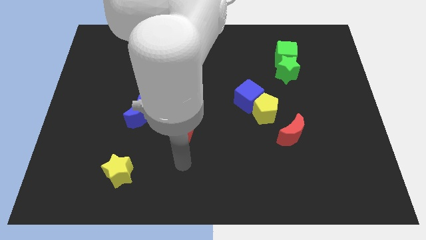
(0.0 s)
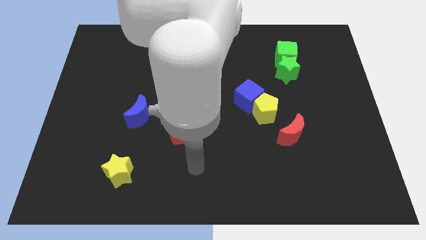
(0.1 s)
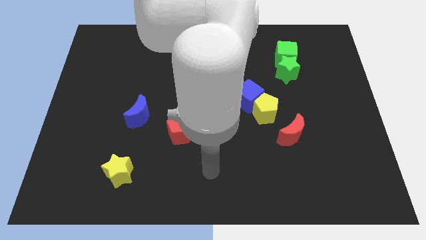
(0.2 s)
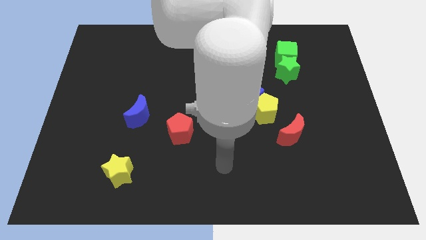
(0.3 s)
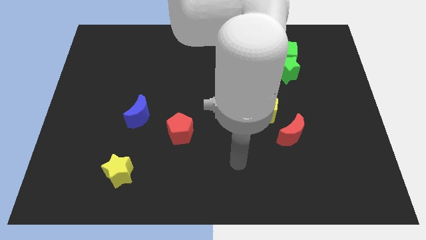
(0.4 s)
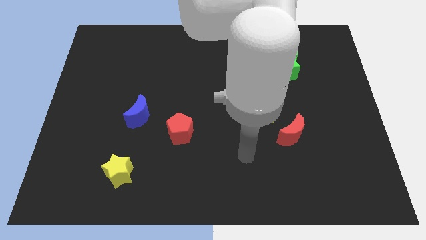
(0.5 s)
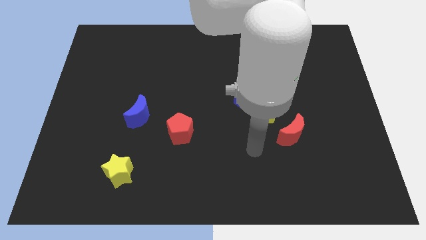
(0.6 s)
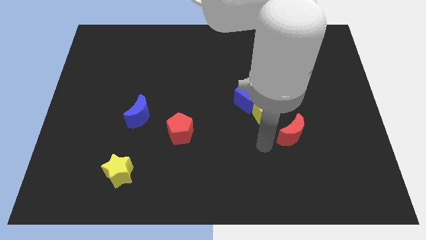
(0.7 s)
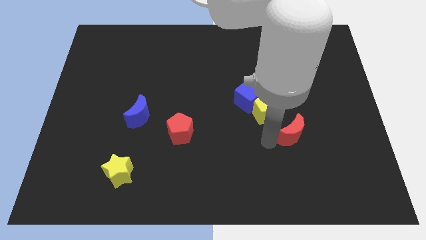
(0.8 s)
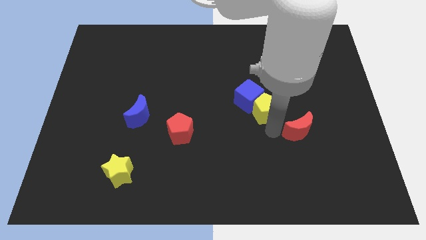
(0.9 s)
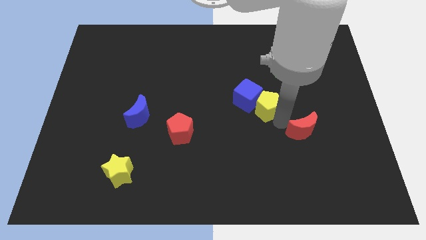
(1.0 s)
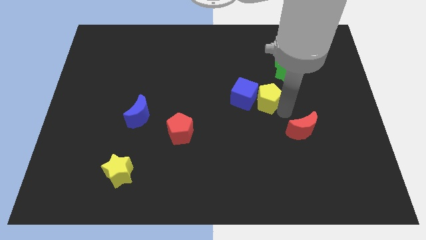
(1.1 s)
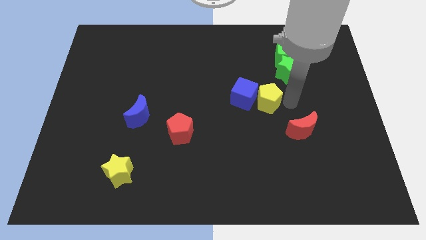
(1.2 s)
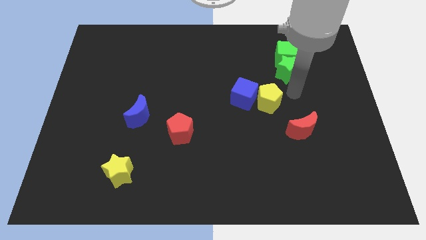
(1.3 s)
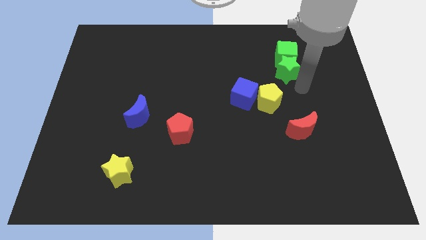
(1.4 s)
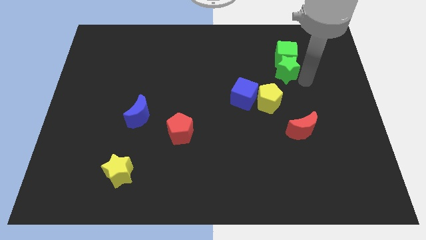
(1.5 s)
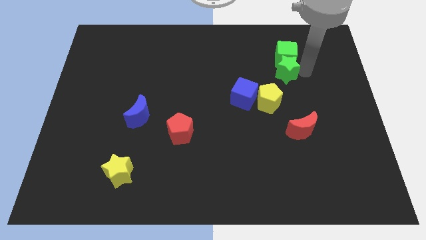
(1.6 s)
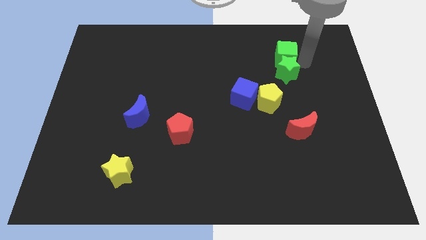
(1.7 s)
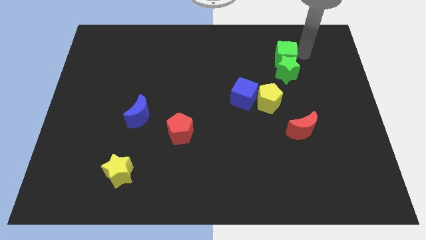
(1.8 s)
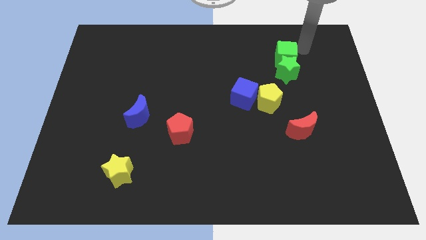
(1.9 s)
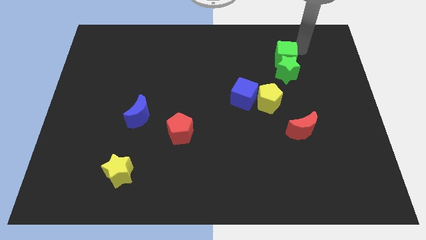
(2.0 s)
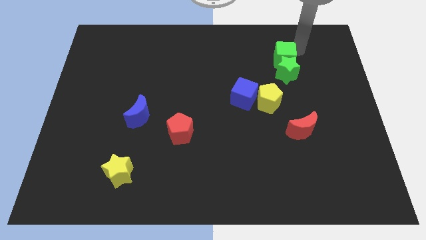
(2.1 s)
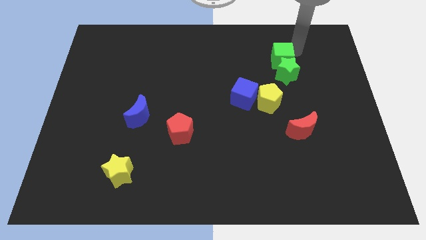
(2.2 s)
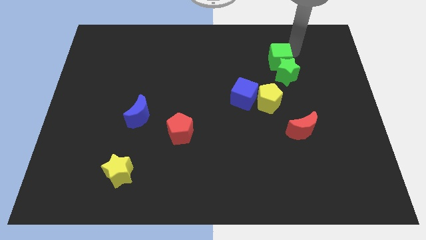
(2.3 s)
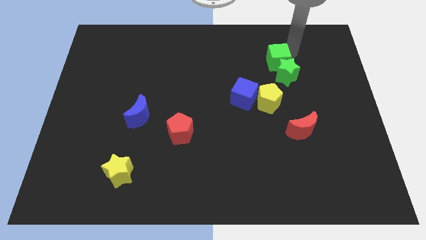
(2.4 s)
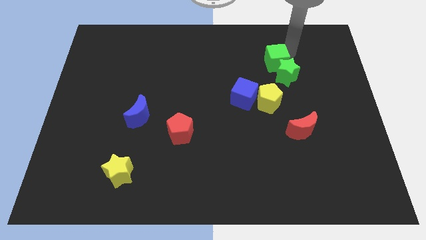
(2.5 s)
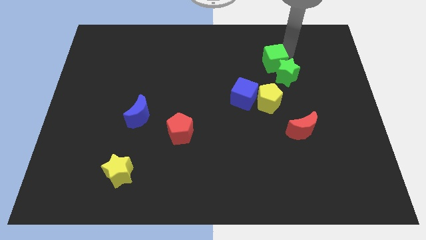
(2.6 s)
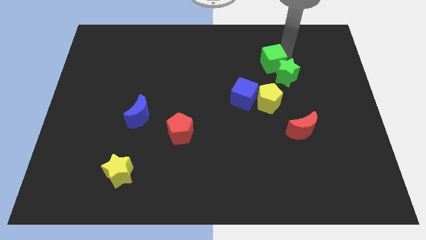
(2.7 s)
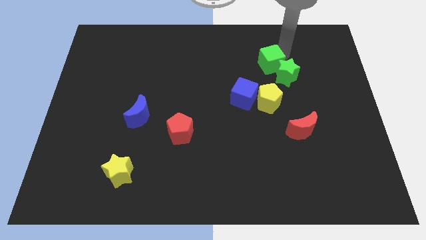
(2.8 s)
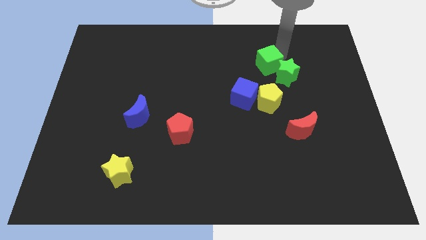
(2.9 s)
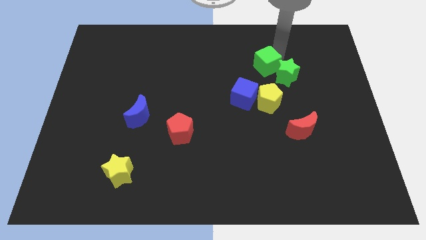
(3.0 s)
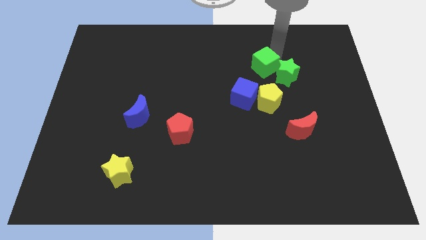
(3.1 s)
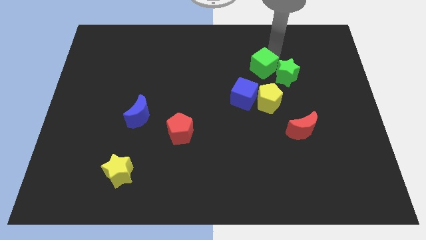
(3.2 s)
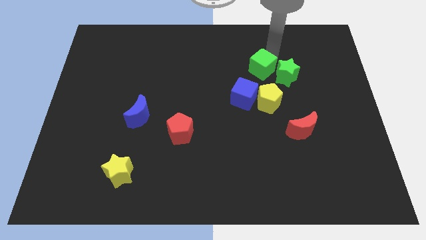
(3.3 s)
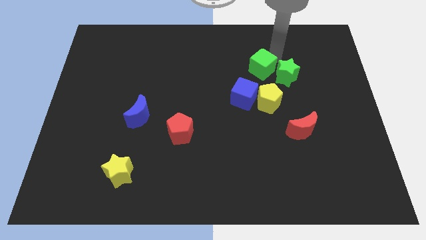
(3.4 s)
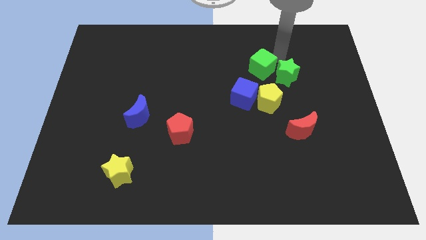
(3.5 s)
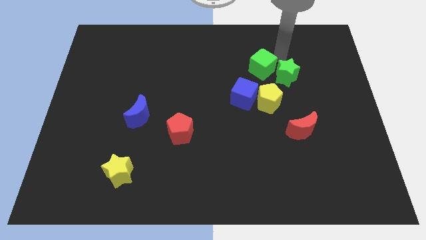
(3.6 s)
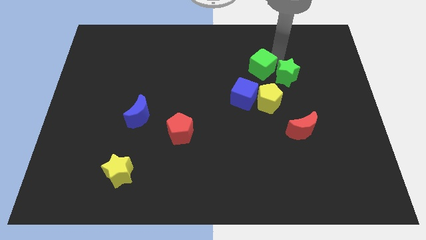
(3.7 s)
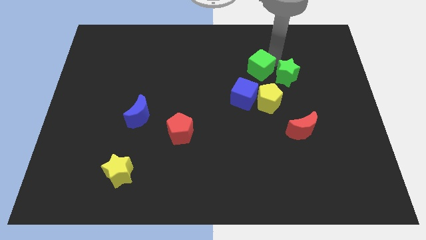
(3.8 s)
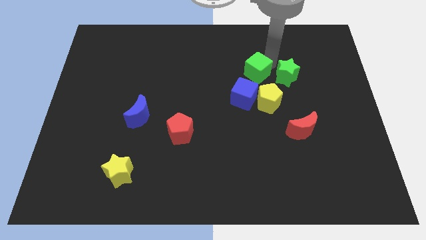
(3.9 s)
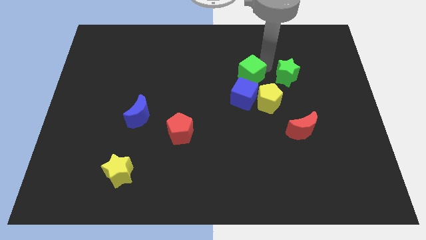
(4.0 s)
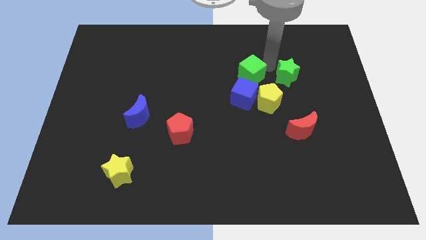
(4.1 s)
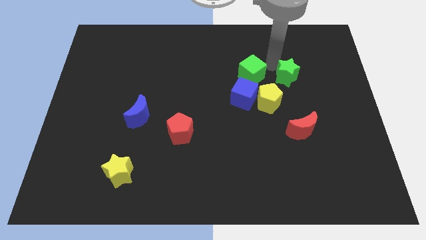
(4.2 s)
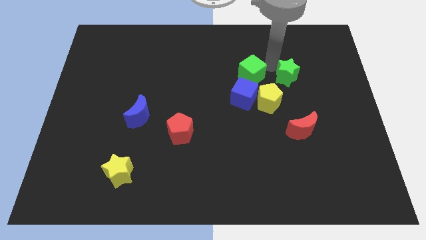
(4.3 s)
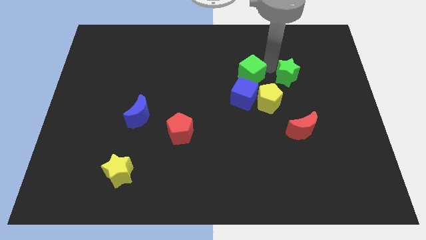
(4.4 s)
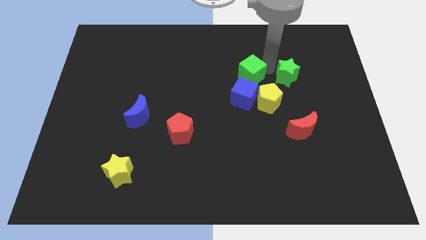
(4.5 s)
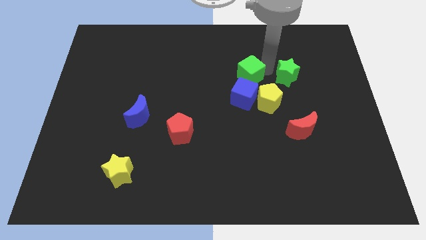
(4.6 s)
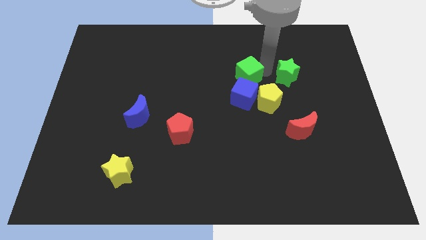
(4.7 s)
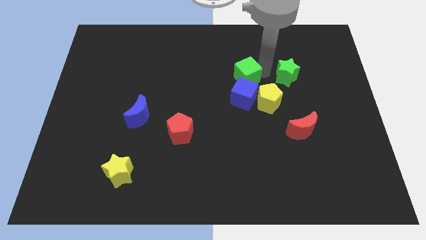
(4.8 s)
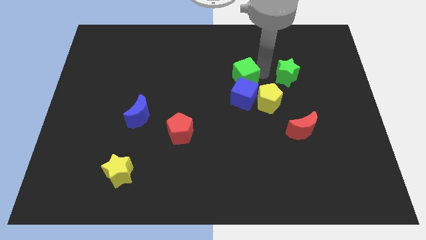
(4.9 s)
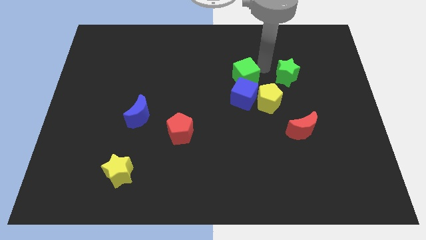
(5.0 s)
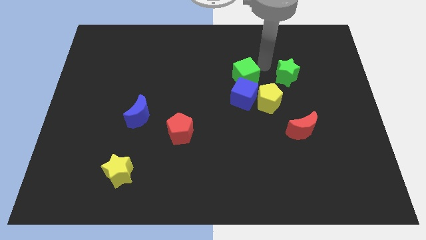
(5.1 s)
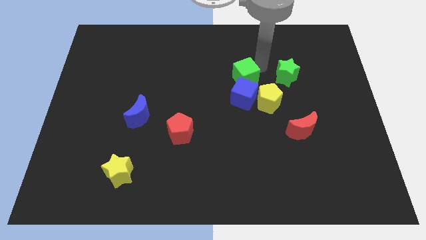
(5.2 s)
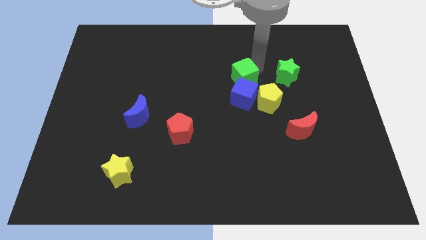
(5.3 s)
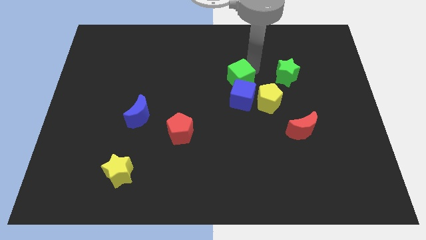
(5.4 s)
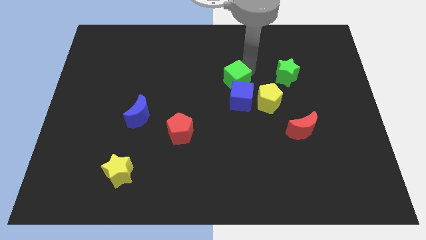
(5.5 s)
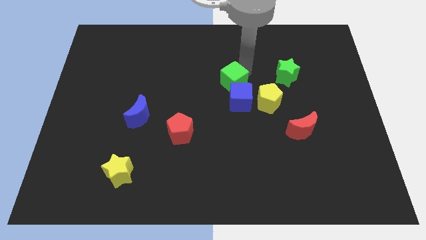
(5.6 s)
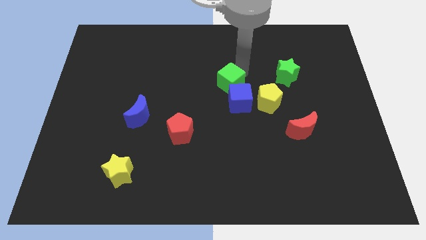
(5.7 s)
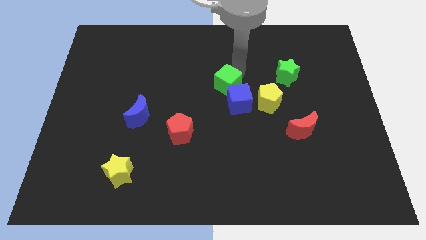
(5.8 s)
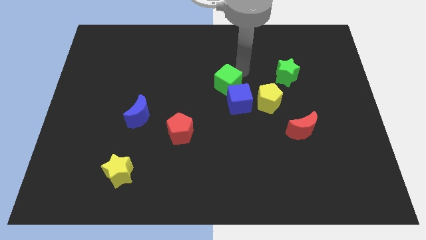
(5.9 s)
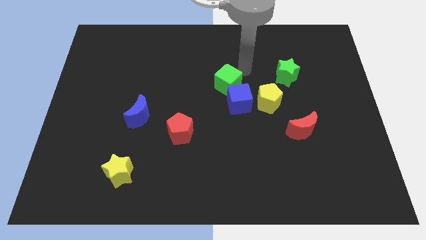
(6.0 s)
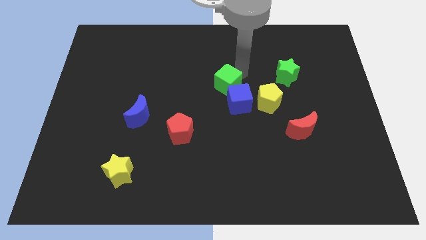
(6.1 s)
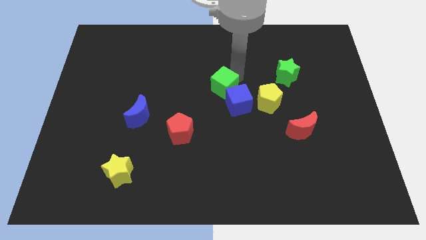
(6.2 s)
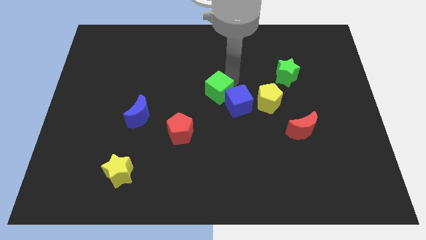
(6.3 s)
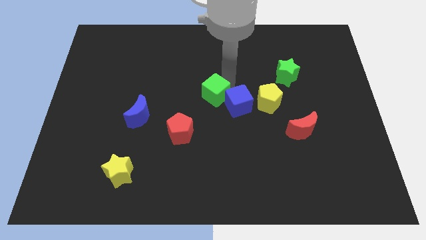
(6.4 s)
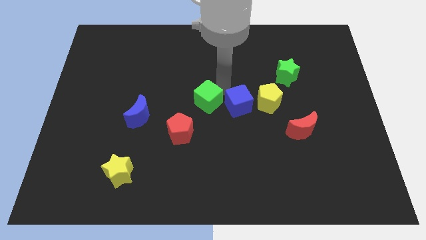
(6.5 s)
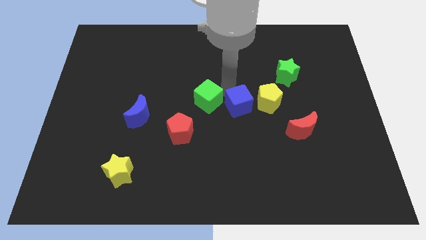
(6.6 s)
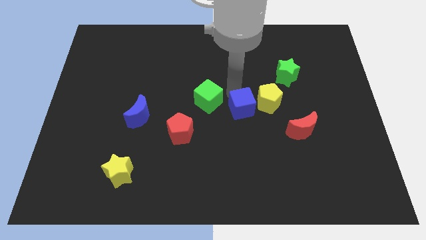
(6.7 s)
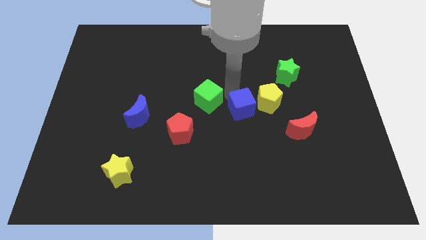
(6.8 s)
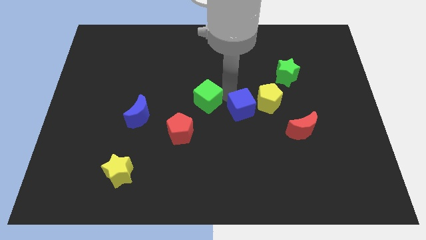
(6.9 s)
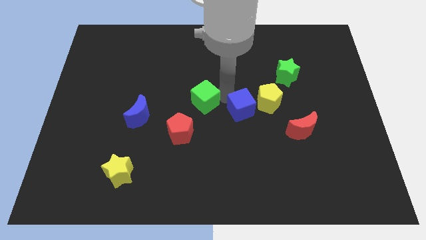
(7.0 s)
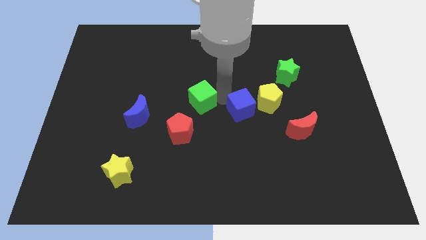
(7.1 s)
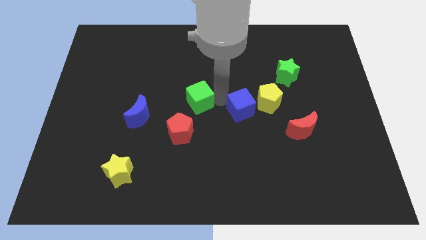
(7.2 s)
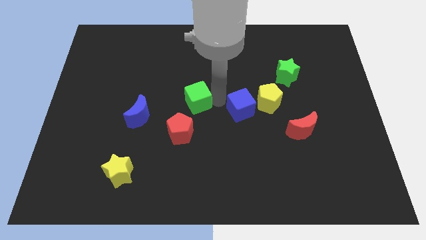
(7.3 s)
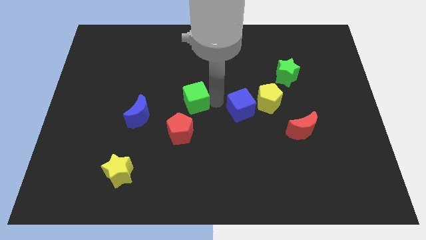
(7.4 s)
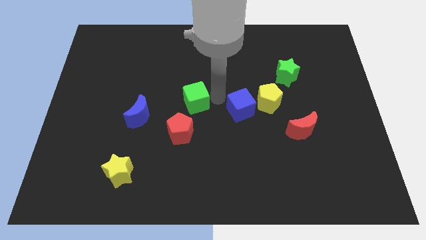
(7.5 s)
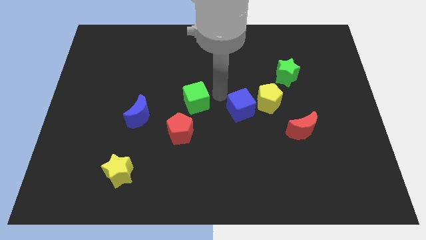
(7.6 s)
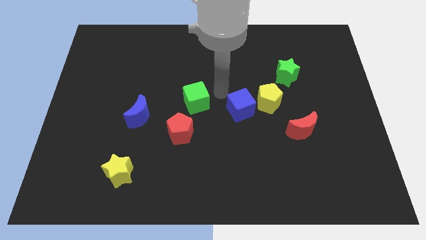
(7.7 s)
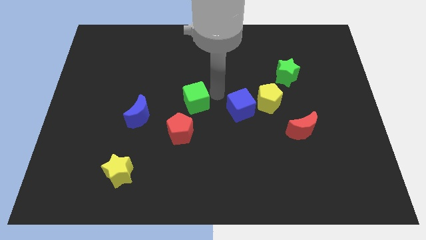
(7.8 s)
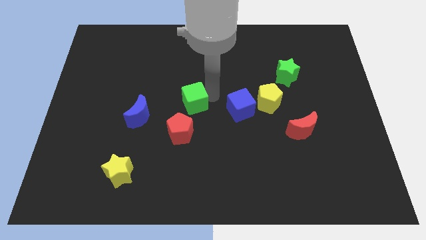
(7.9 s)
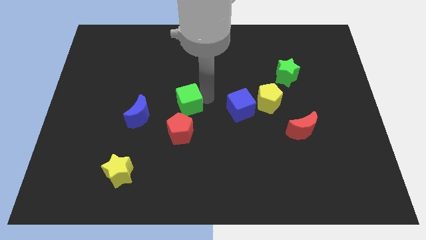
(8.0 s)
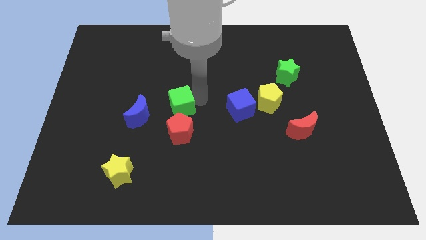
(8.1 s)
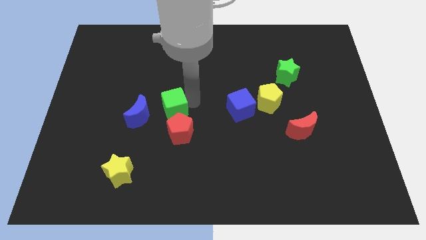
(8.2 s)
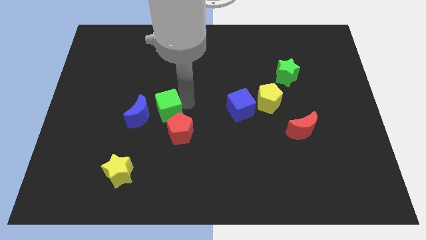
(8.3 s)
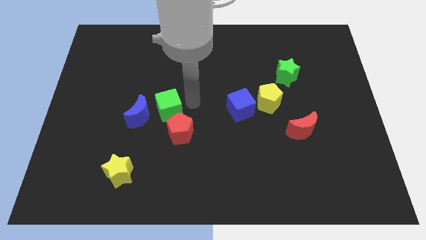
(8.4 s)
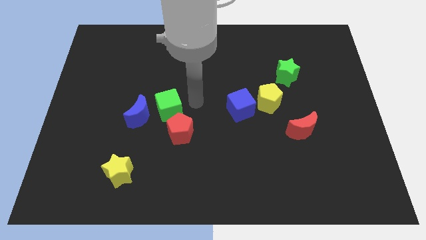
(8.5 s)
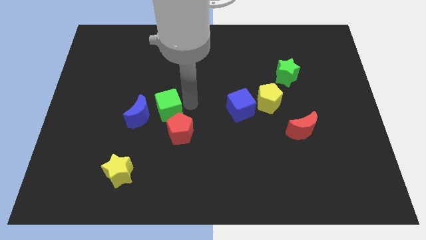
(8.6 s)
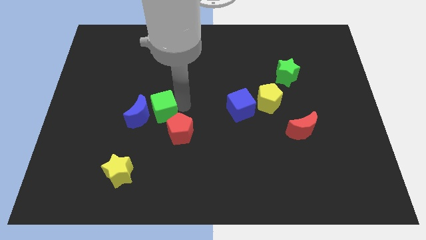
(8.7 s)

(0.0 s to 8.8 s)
slide the green cube next to the blue moon
